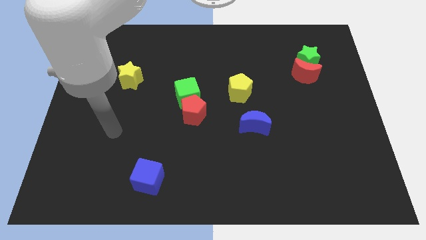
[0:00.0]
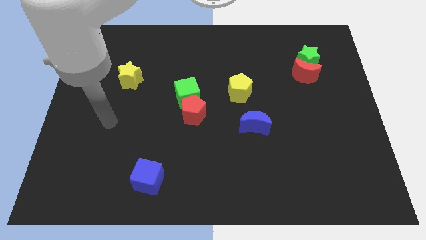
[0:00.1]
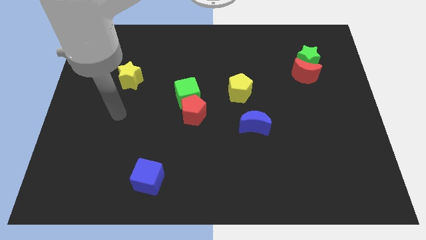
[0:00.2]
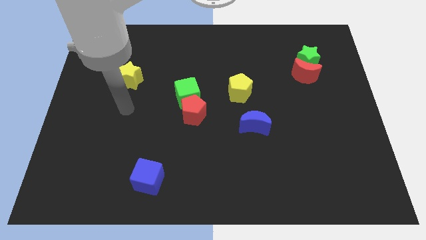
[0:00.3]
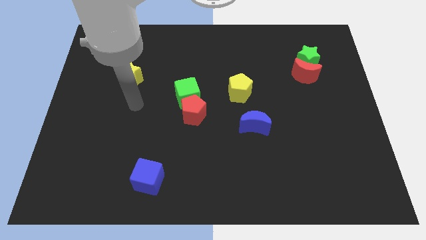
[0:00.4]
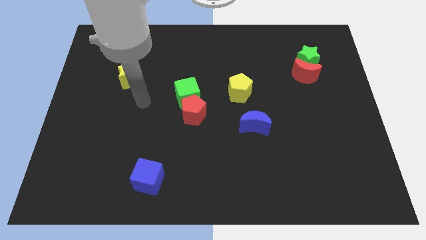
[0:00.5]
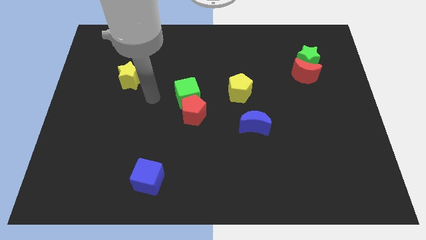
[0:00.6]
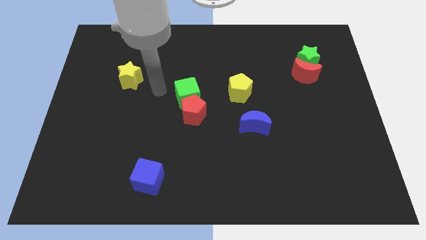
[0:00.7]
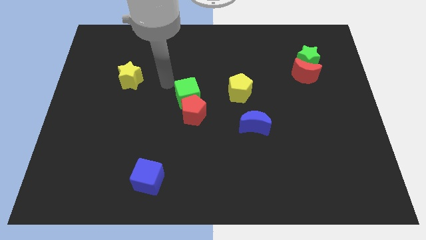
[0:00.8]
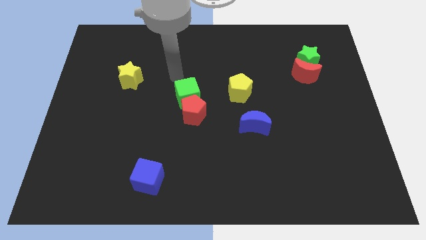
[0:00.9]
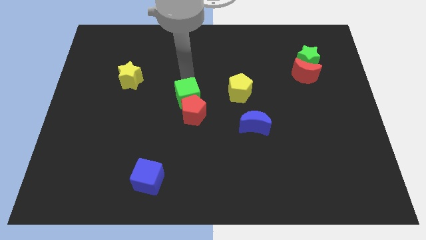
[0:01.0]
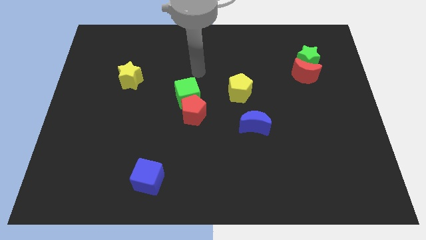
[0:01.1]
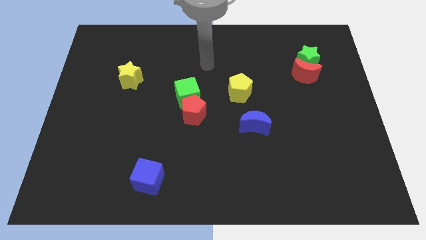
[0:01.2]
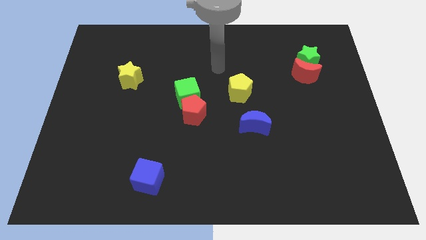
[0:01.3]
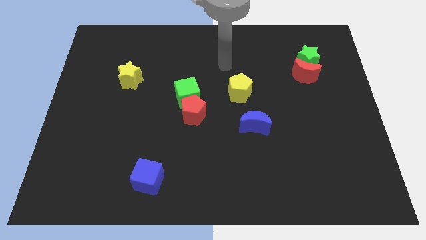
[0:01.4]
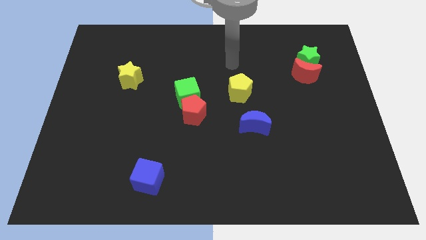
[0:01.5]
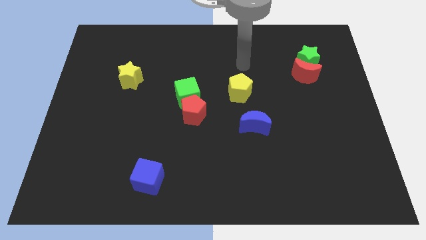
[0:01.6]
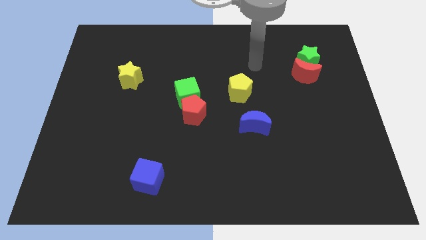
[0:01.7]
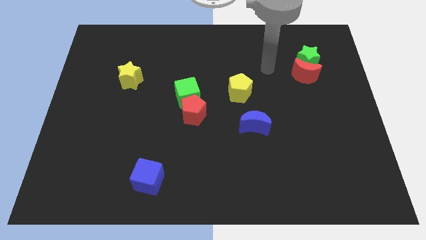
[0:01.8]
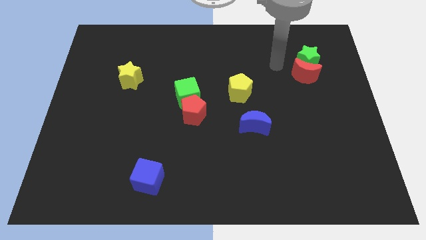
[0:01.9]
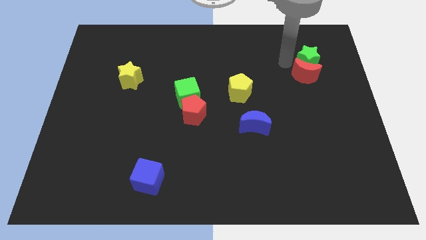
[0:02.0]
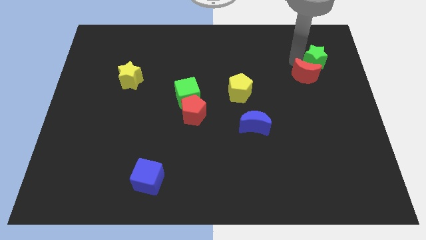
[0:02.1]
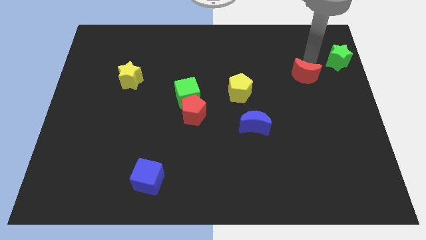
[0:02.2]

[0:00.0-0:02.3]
move the red moon away from the green star

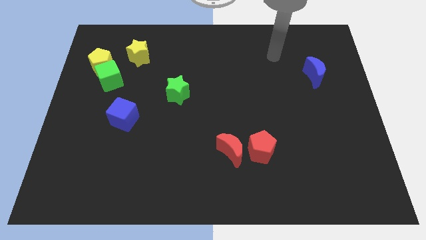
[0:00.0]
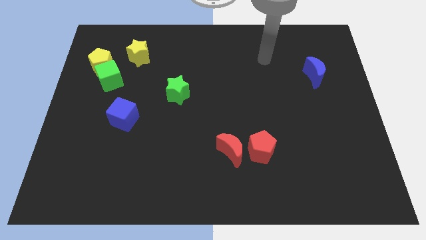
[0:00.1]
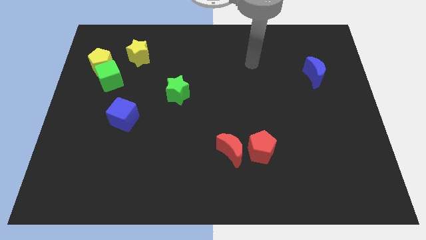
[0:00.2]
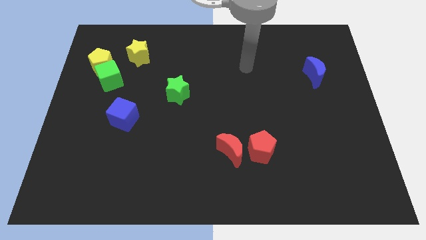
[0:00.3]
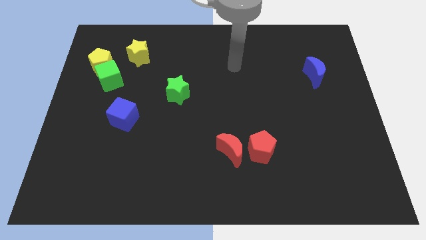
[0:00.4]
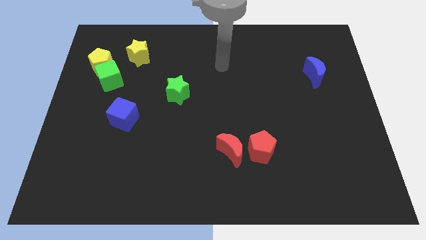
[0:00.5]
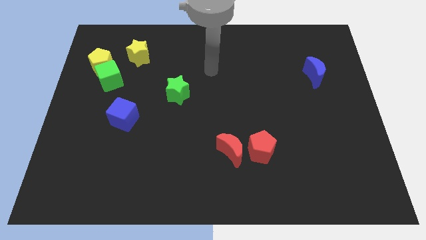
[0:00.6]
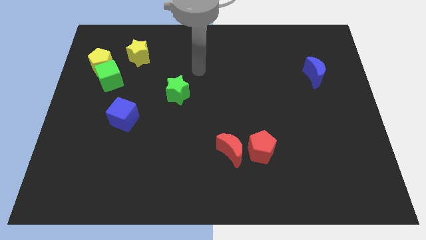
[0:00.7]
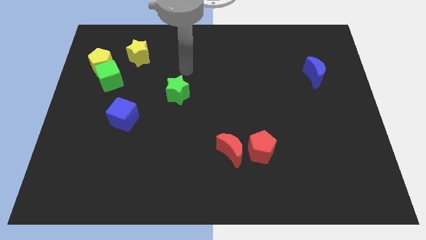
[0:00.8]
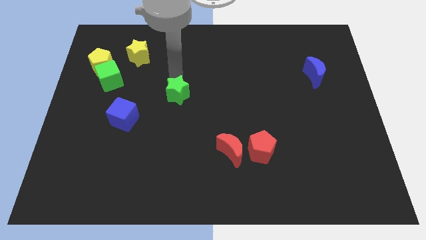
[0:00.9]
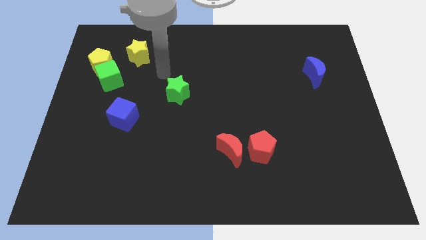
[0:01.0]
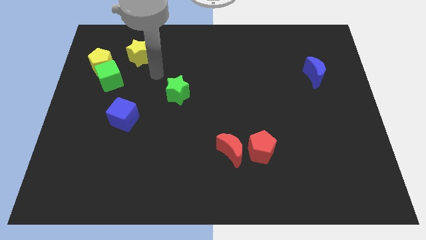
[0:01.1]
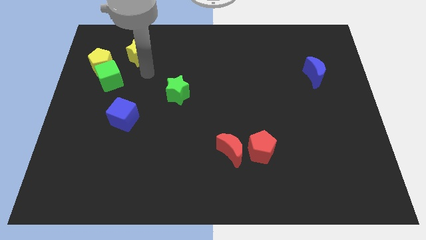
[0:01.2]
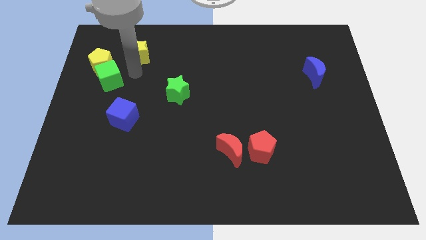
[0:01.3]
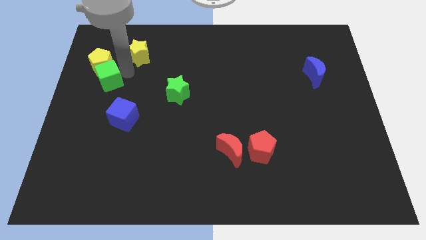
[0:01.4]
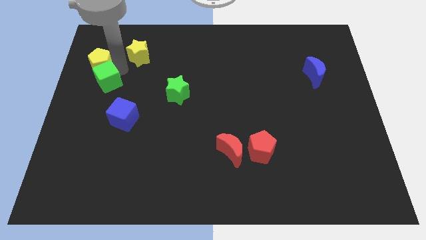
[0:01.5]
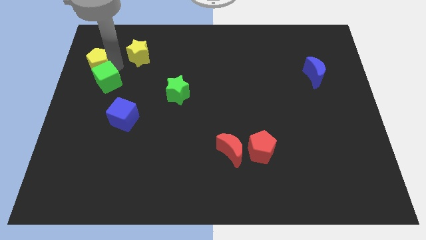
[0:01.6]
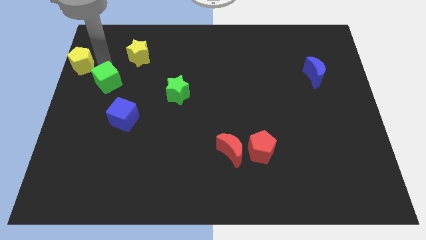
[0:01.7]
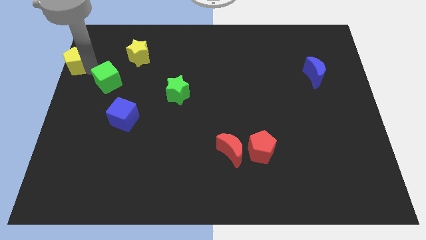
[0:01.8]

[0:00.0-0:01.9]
move the green cube away from the yellow pentagon

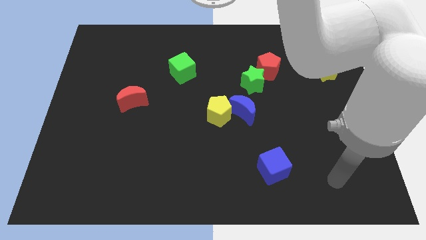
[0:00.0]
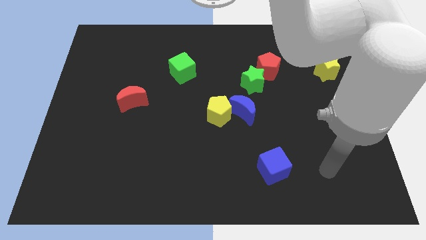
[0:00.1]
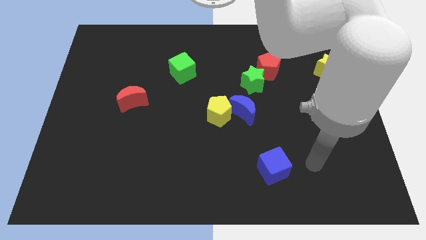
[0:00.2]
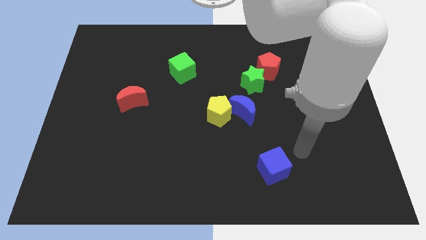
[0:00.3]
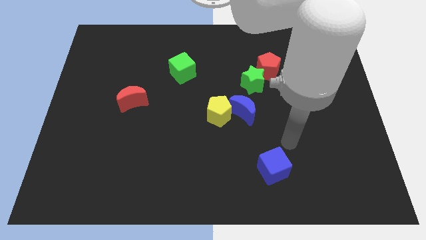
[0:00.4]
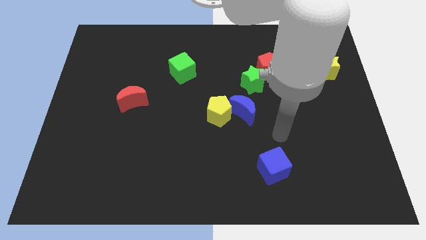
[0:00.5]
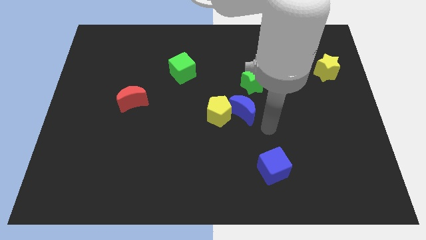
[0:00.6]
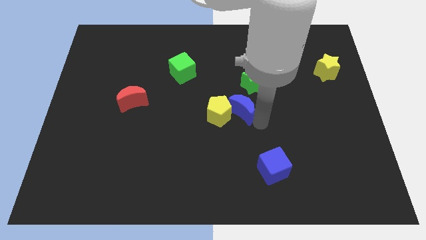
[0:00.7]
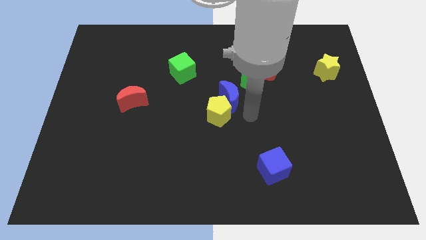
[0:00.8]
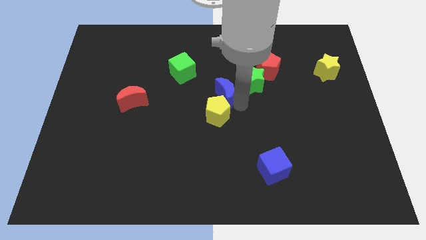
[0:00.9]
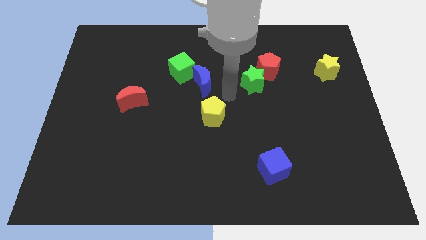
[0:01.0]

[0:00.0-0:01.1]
pull the yellow pentagon apart from the blue moon

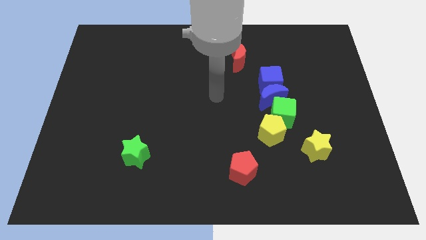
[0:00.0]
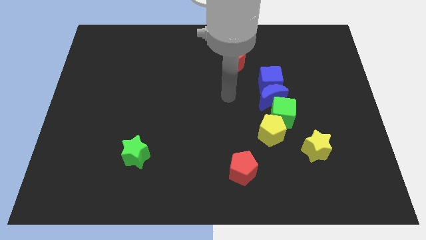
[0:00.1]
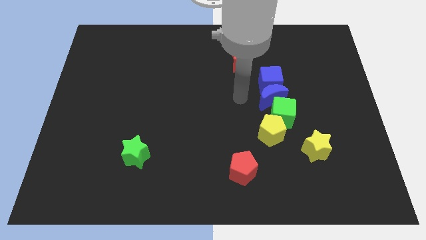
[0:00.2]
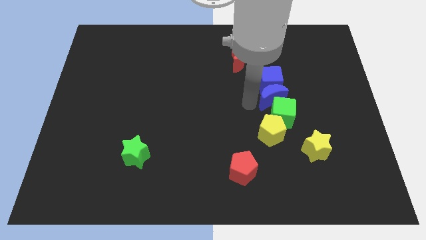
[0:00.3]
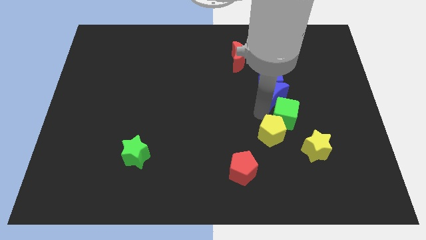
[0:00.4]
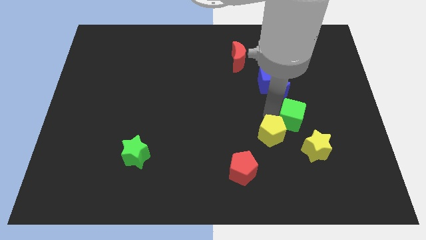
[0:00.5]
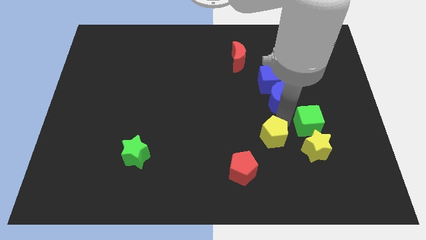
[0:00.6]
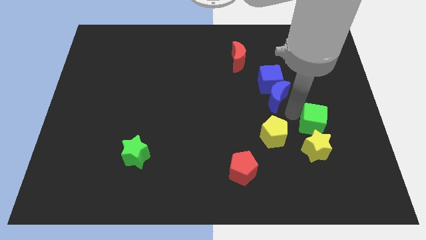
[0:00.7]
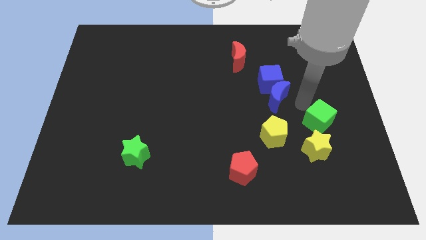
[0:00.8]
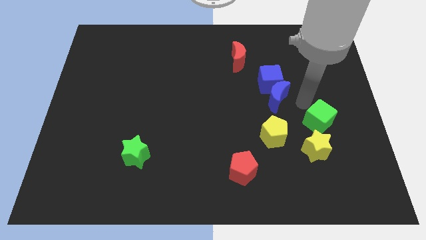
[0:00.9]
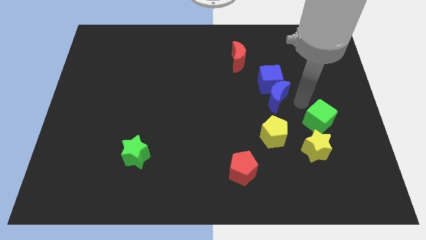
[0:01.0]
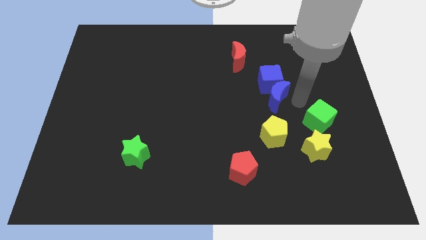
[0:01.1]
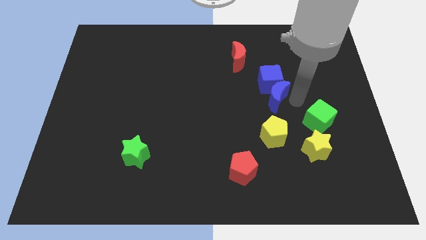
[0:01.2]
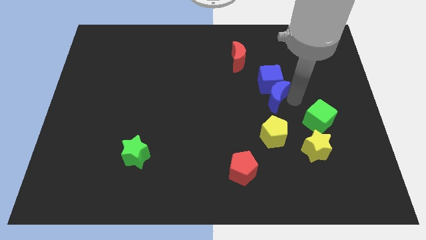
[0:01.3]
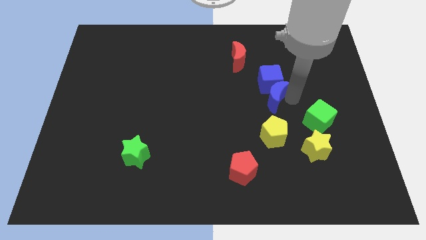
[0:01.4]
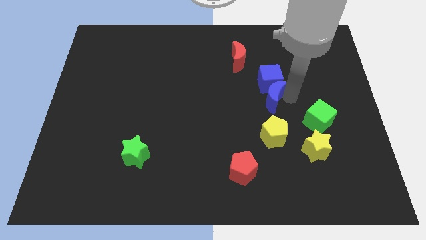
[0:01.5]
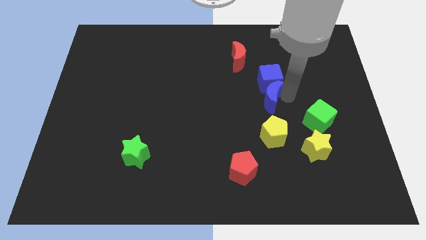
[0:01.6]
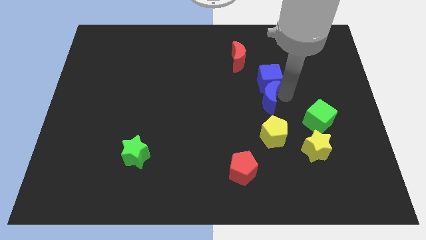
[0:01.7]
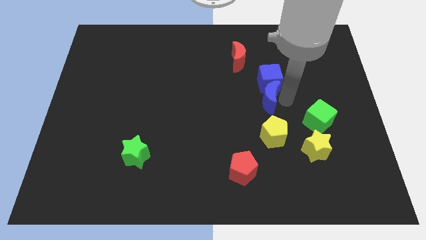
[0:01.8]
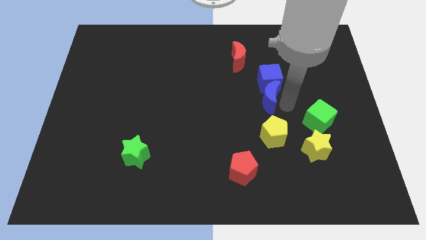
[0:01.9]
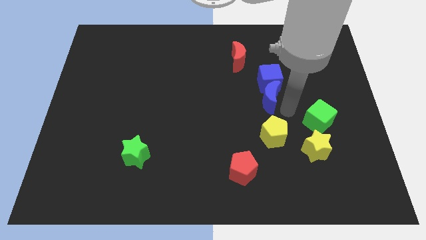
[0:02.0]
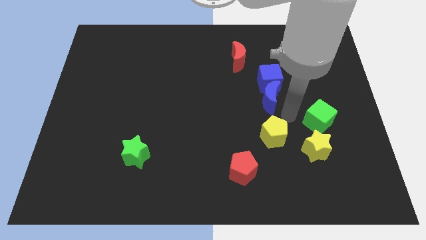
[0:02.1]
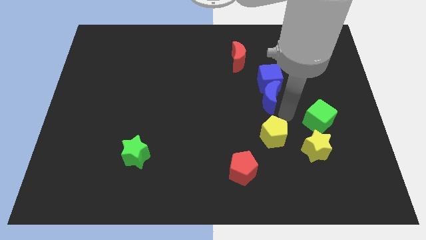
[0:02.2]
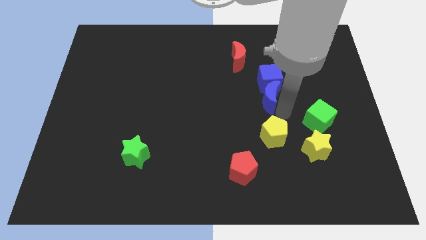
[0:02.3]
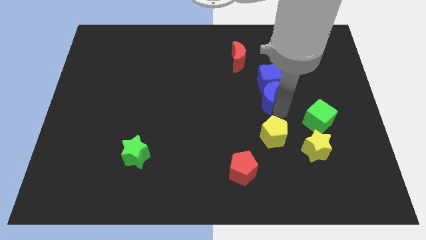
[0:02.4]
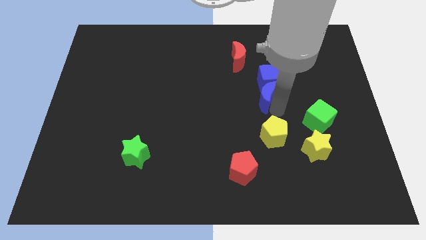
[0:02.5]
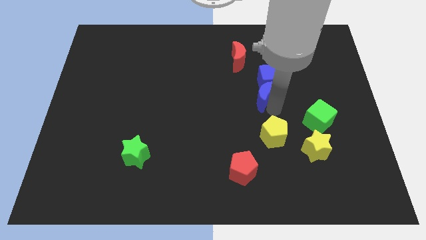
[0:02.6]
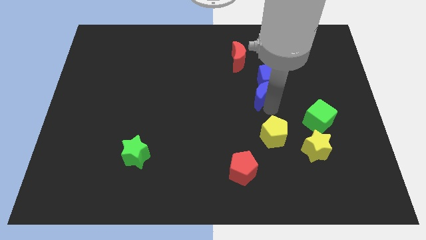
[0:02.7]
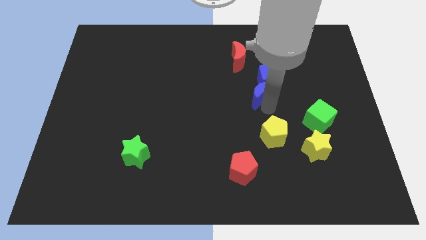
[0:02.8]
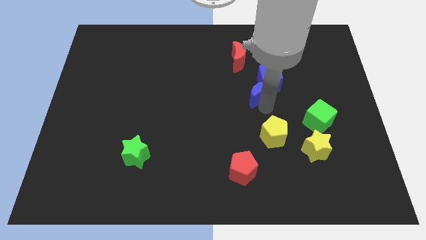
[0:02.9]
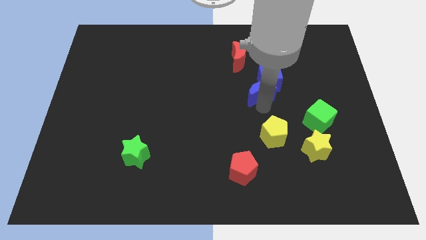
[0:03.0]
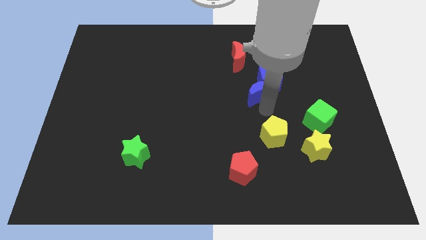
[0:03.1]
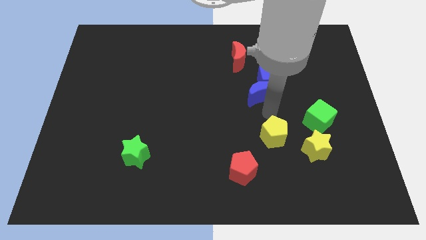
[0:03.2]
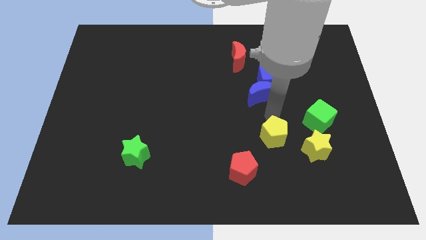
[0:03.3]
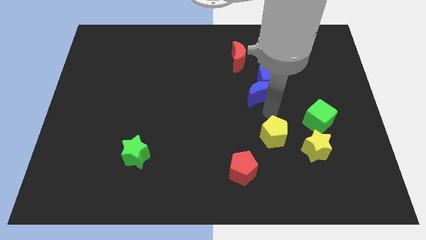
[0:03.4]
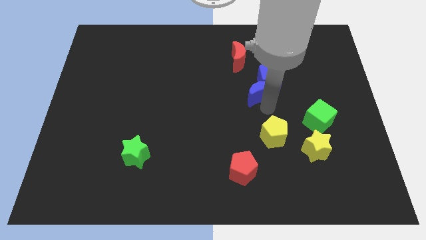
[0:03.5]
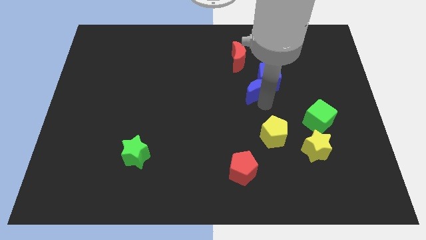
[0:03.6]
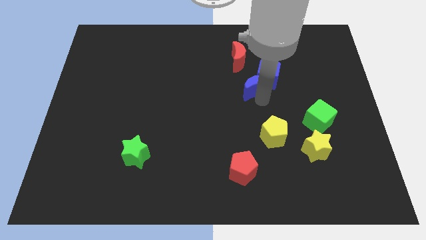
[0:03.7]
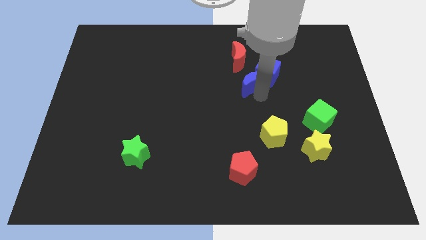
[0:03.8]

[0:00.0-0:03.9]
pull the blue moon apart from the group

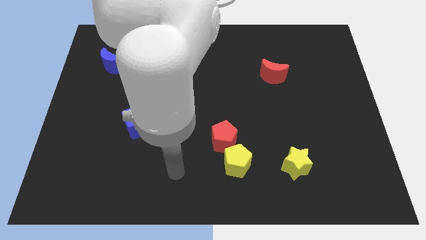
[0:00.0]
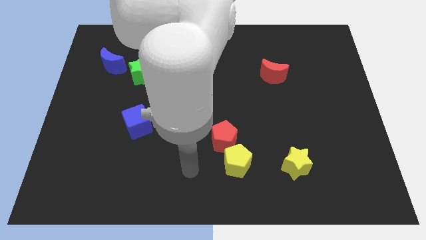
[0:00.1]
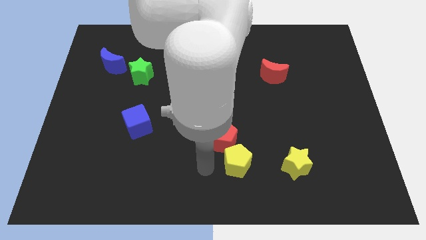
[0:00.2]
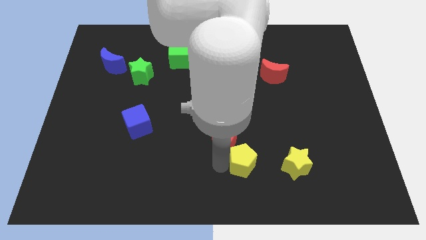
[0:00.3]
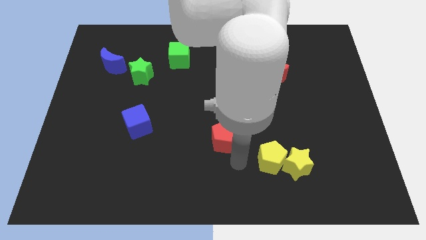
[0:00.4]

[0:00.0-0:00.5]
pull the red pentagon apart from the yellow pentagon
